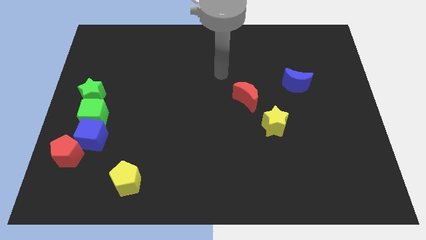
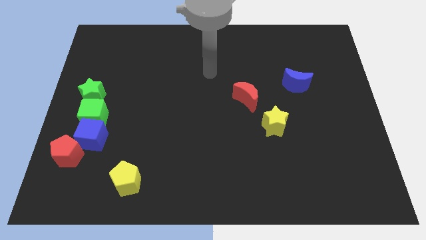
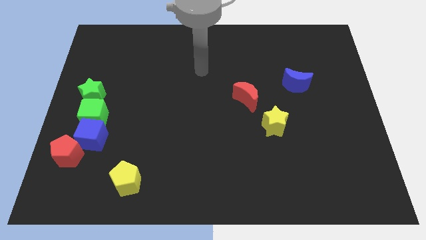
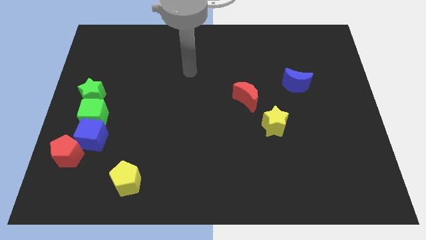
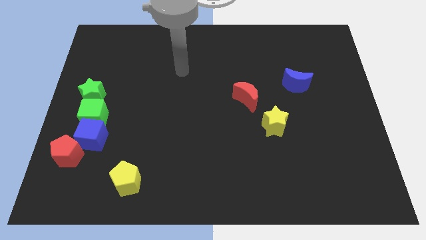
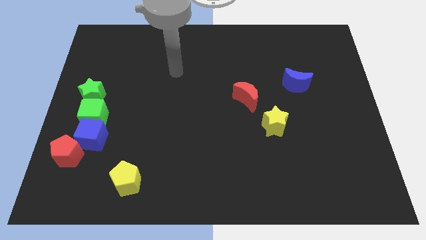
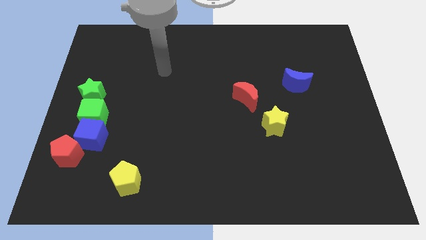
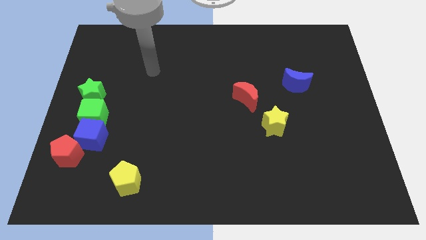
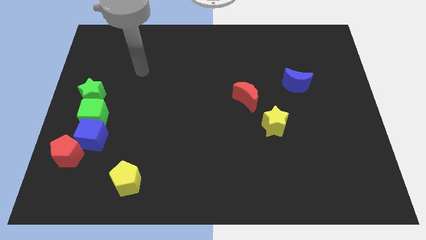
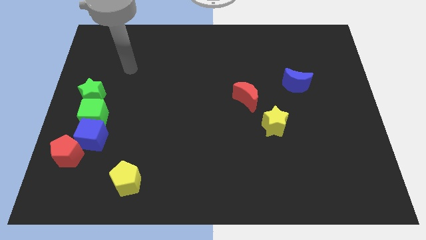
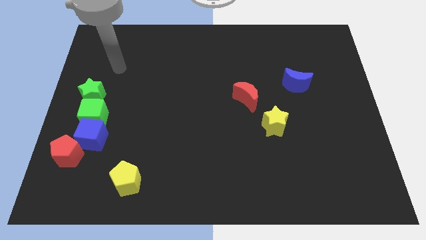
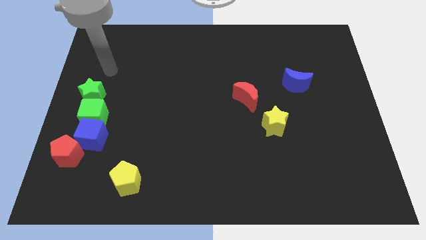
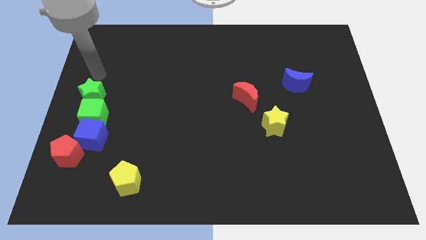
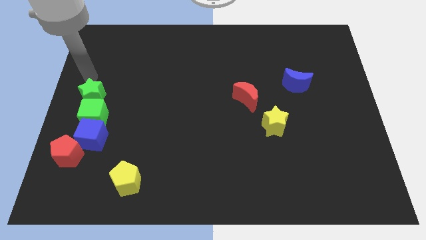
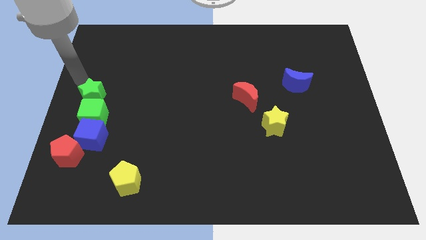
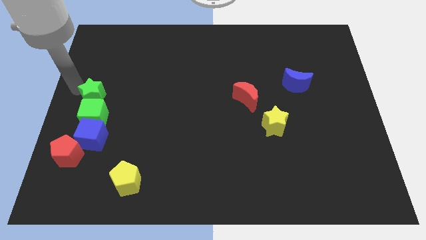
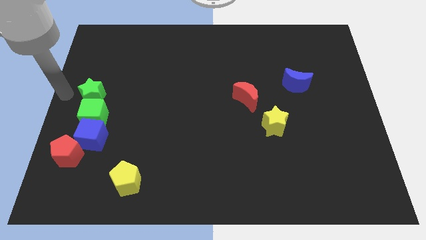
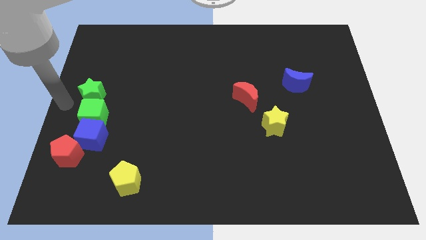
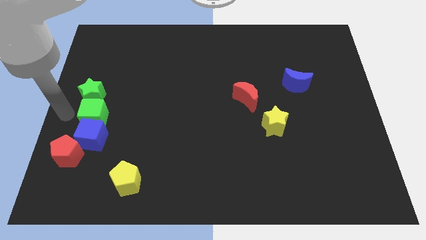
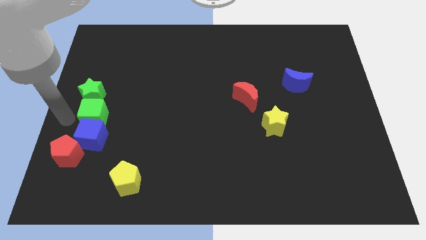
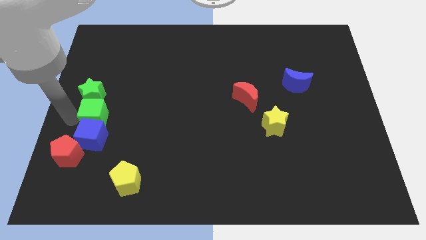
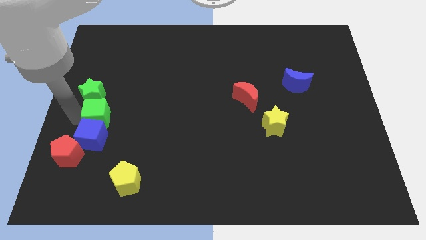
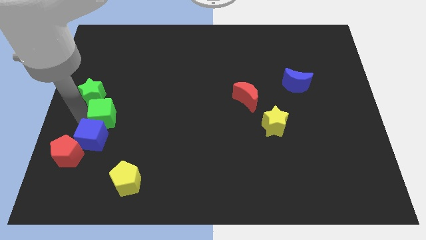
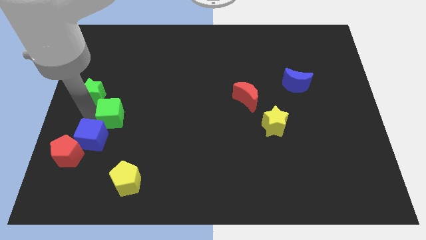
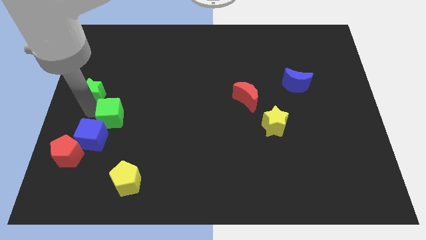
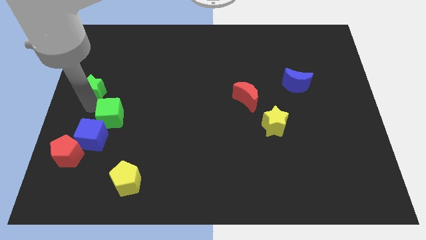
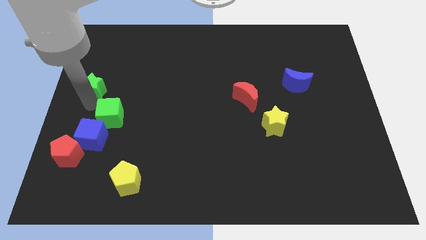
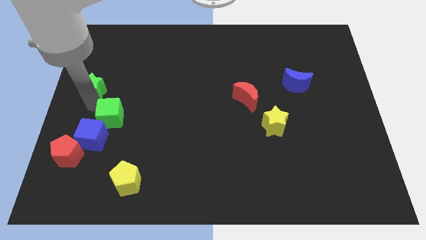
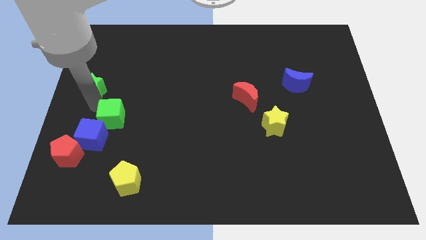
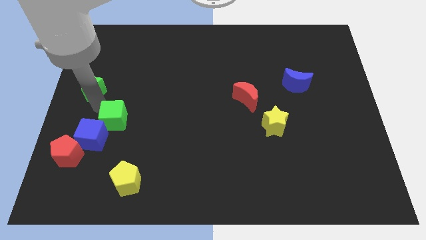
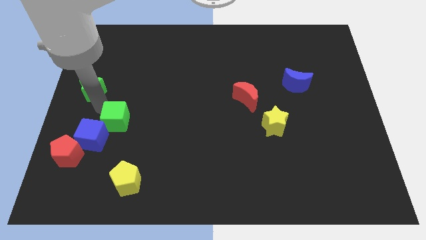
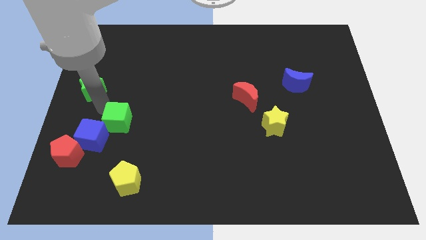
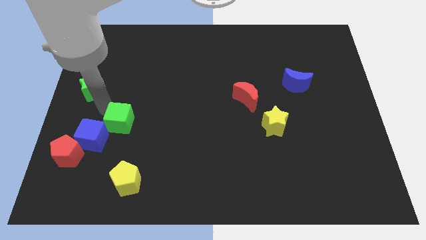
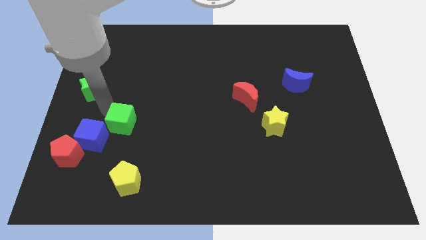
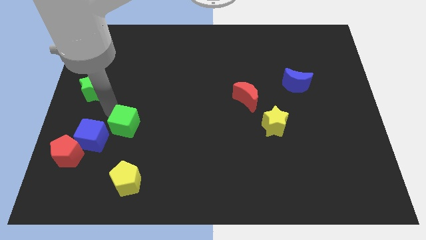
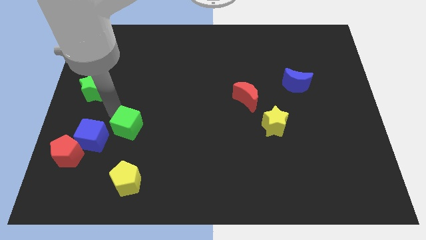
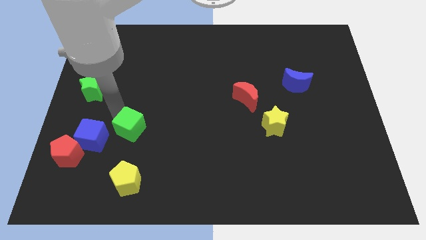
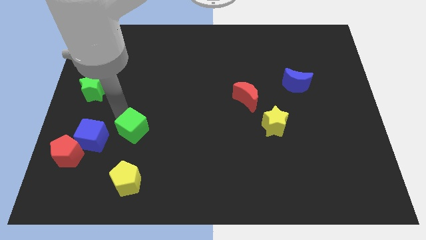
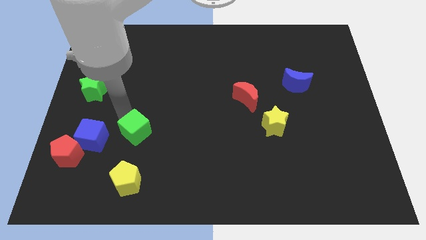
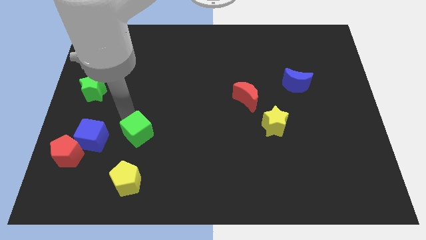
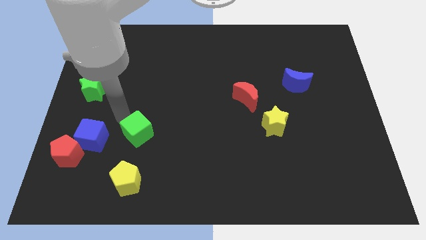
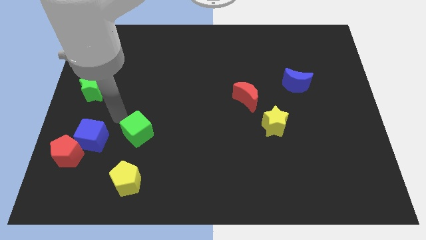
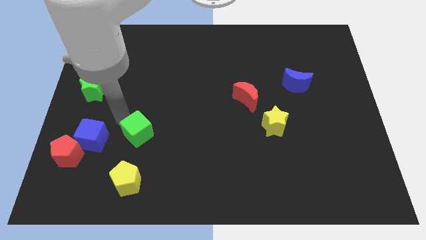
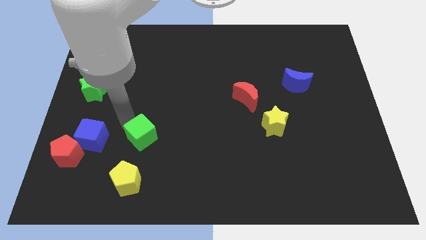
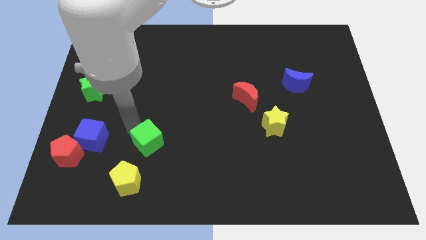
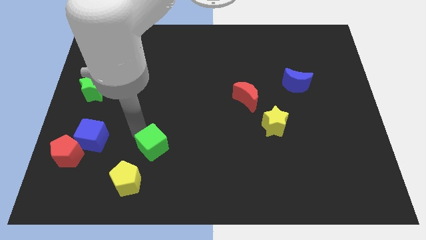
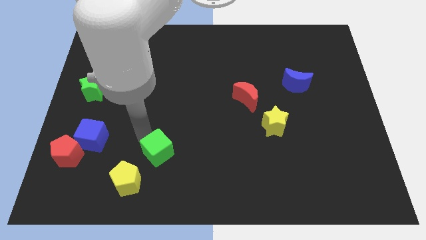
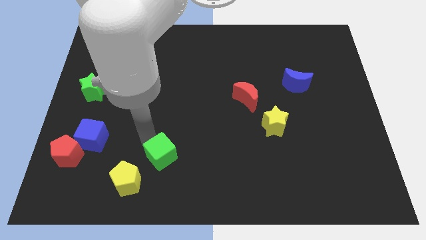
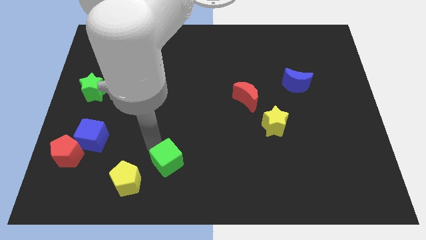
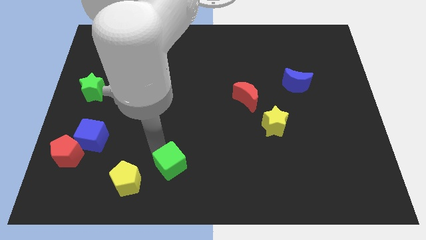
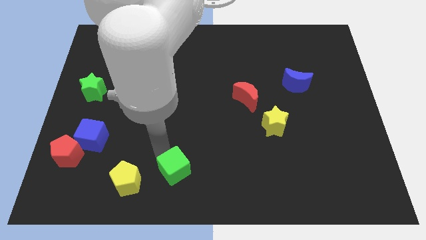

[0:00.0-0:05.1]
move the green cube to the bottom side

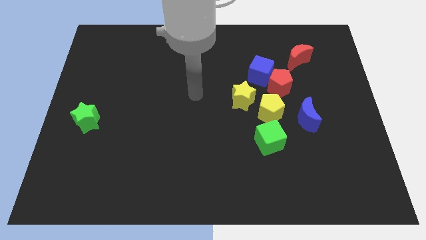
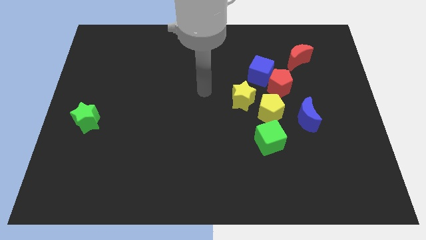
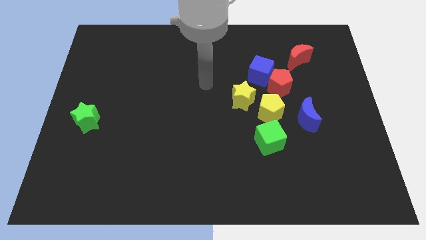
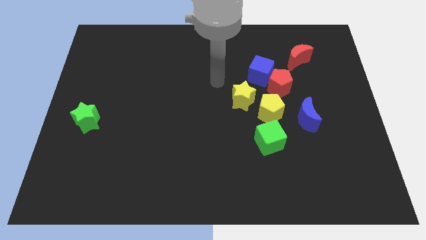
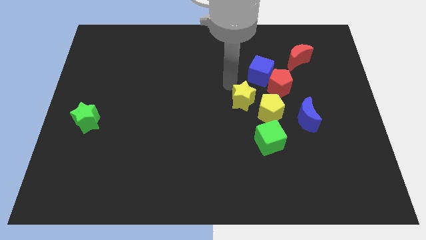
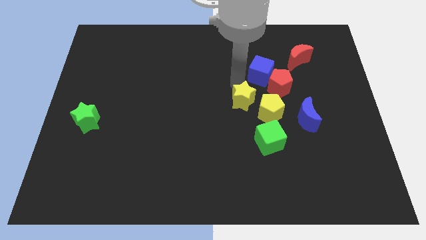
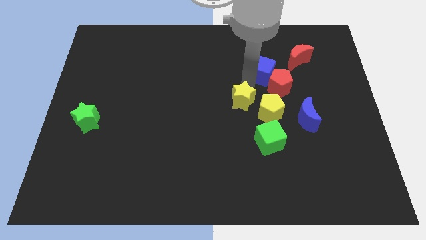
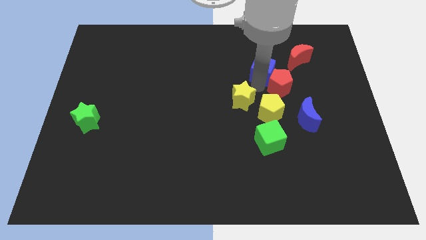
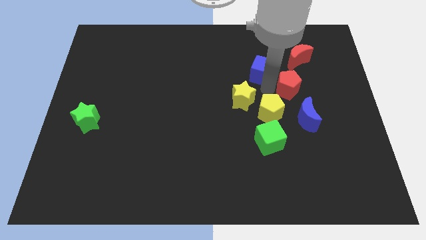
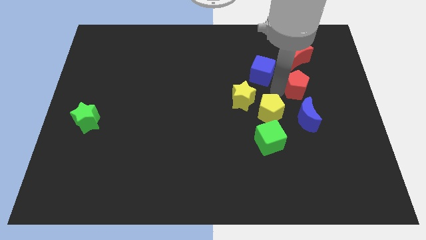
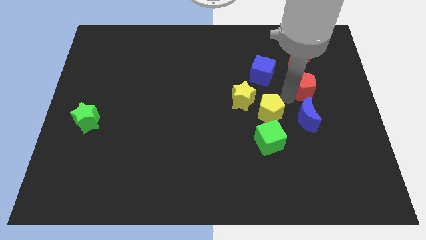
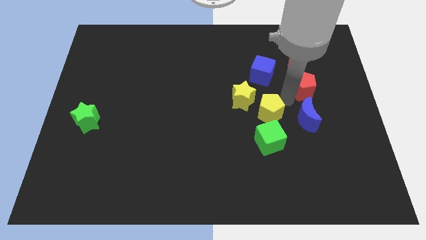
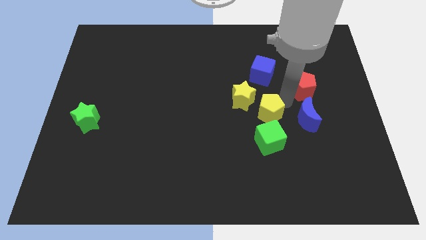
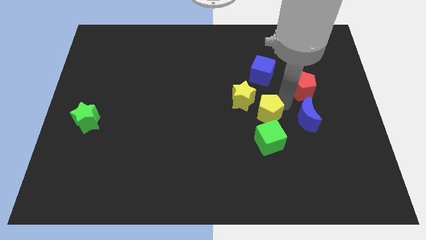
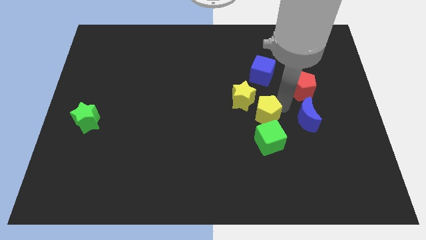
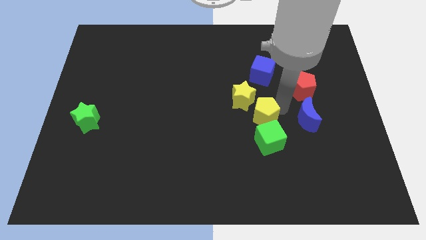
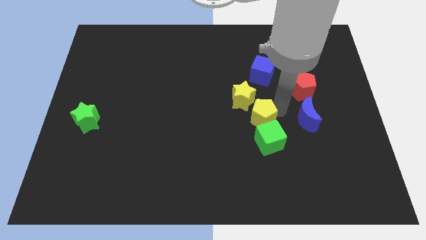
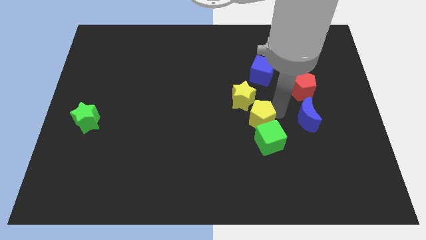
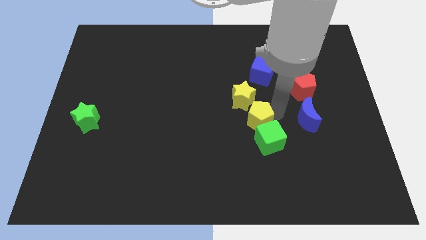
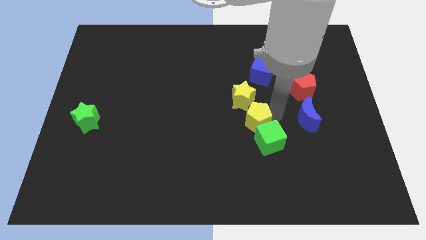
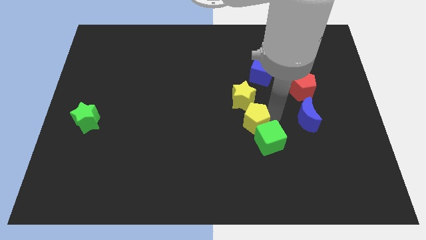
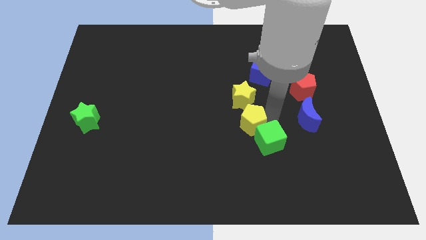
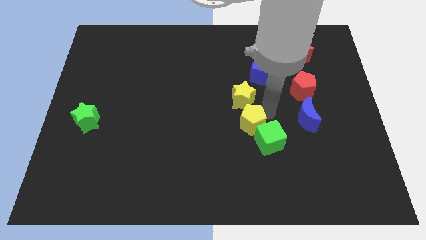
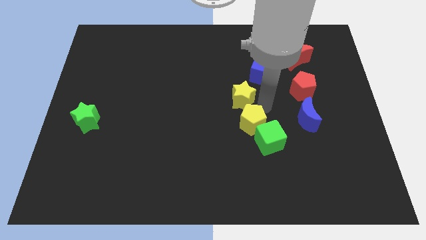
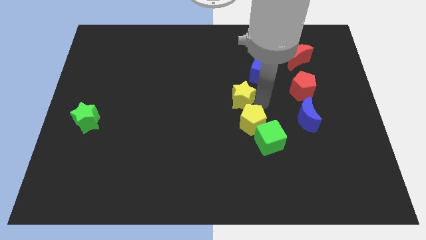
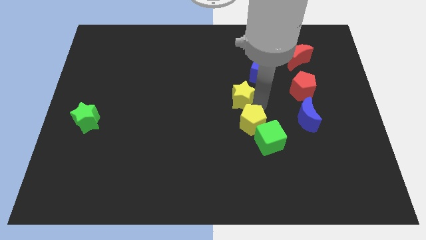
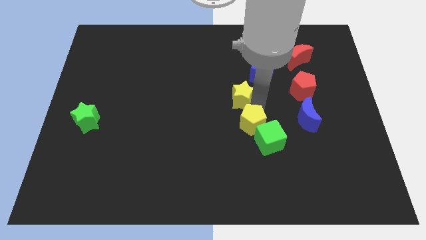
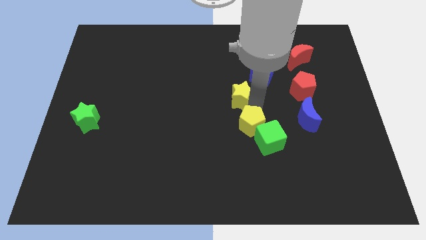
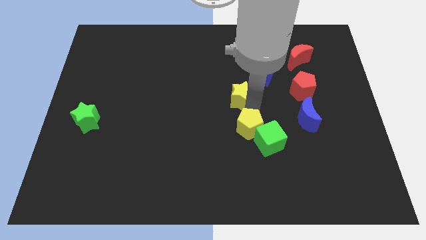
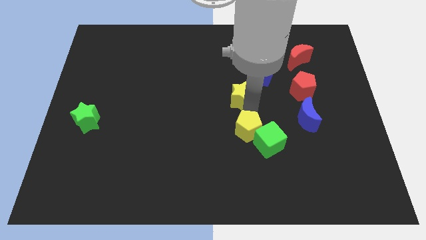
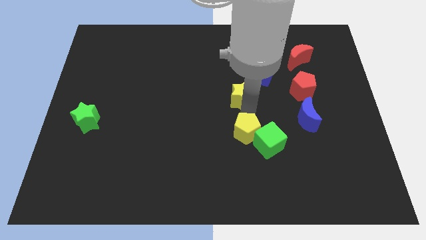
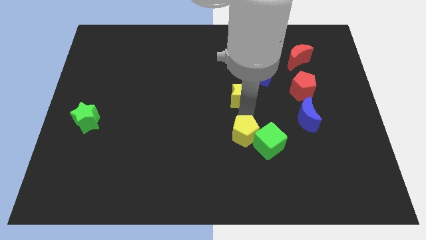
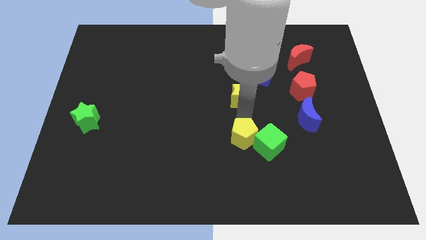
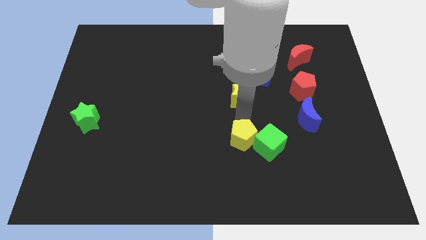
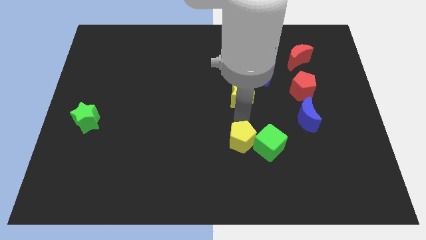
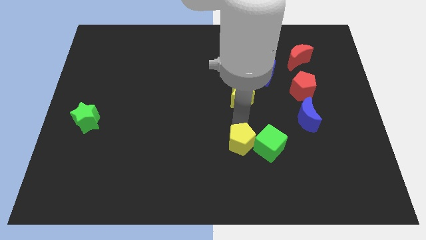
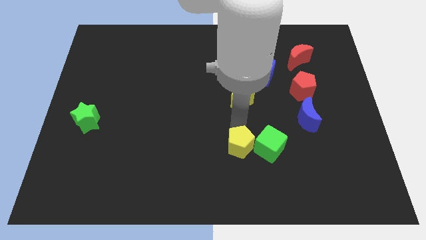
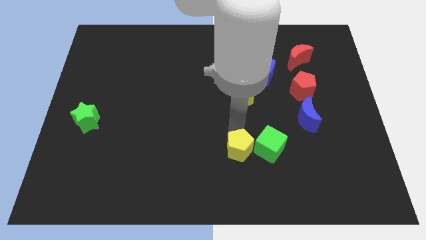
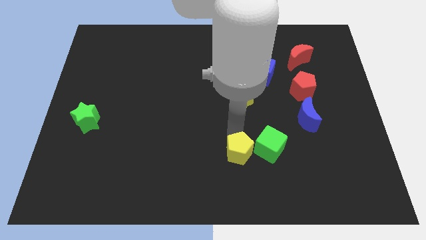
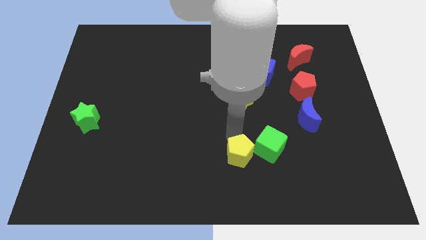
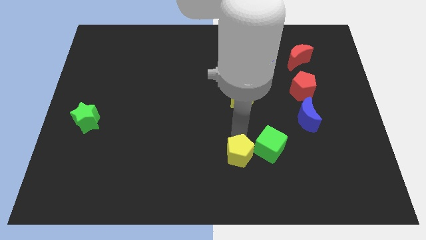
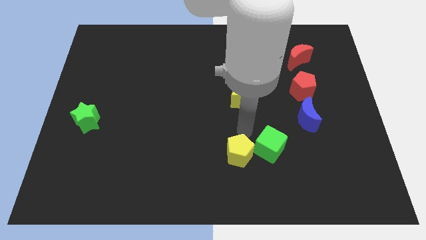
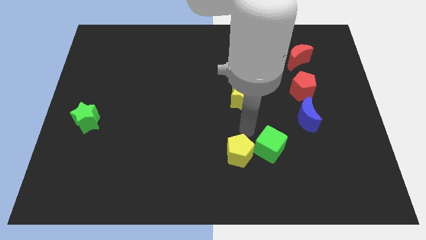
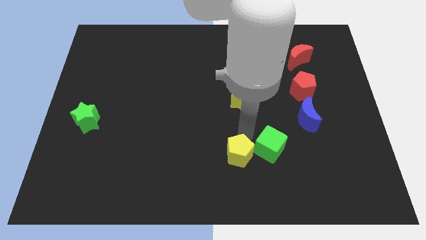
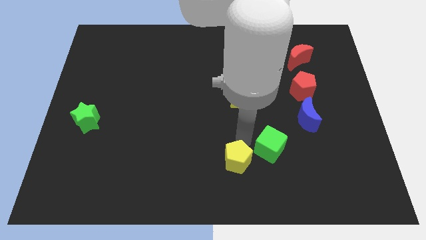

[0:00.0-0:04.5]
put the yellow pentagon to the bottom
